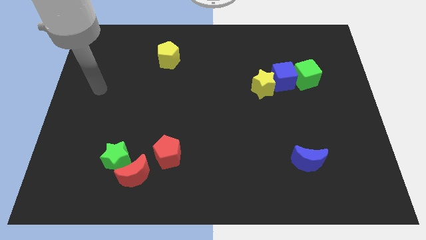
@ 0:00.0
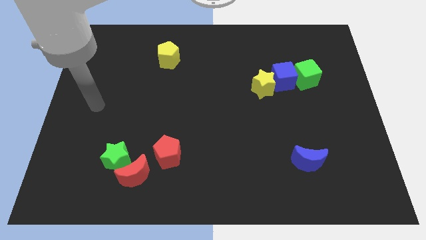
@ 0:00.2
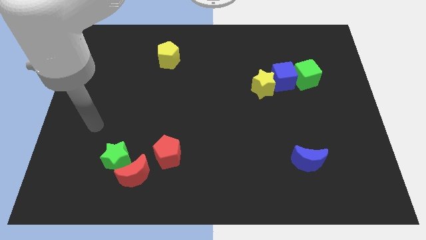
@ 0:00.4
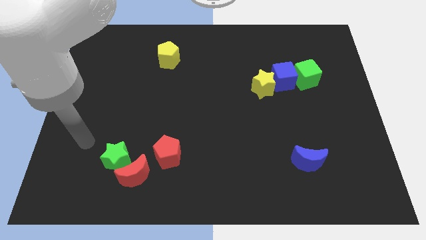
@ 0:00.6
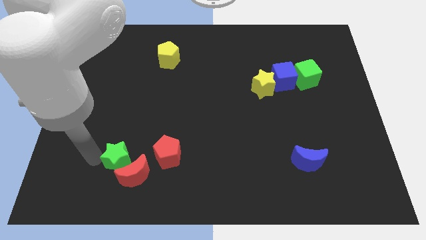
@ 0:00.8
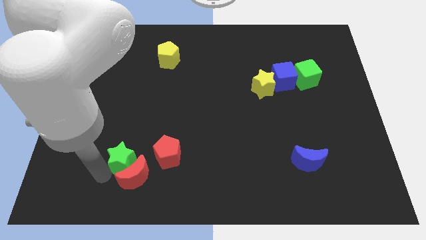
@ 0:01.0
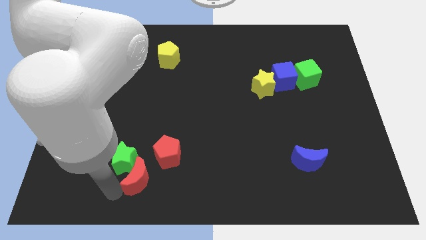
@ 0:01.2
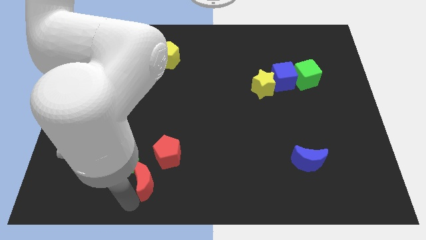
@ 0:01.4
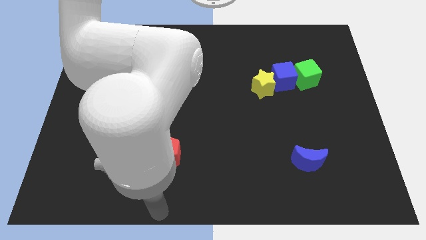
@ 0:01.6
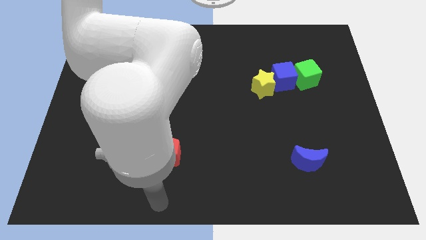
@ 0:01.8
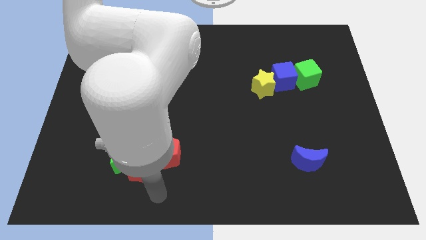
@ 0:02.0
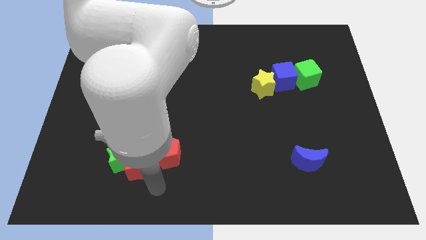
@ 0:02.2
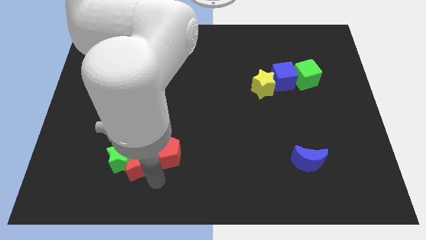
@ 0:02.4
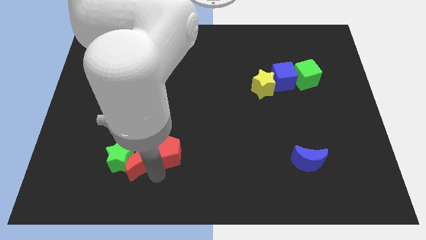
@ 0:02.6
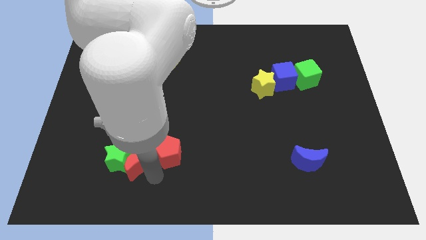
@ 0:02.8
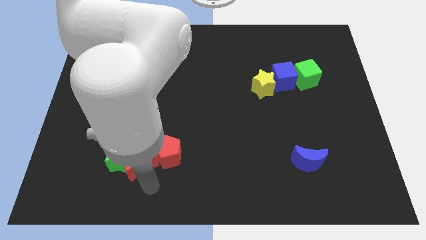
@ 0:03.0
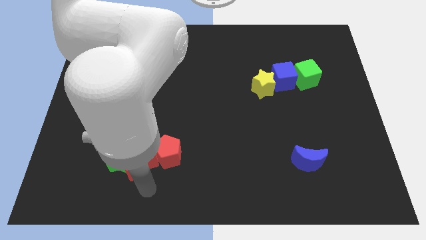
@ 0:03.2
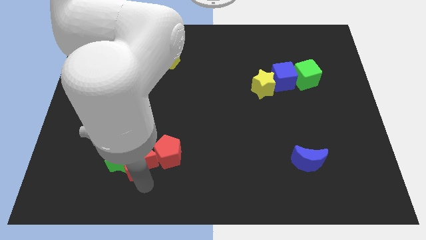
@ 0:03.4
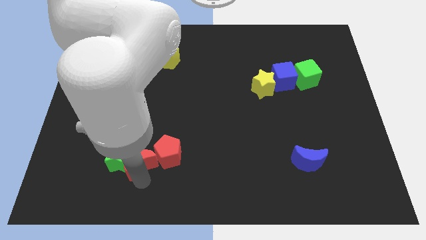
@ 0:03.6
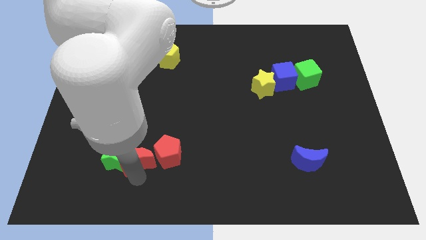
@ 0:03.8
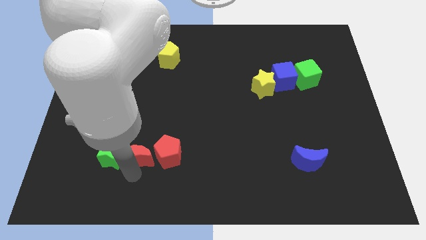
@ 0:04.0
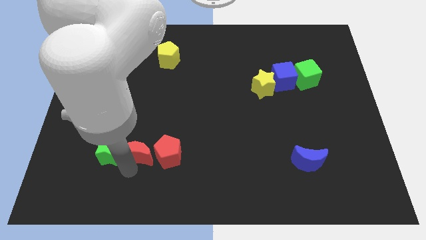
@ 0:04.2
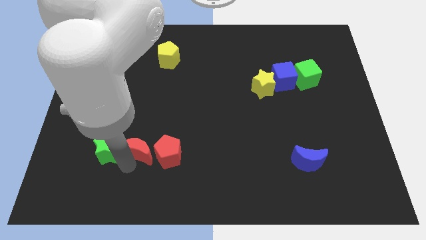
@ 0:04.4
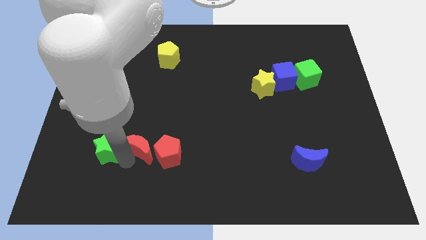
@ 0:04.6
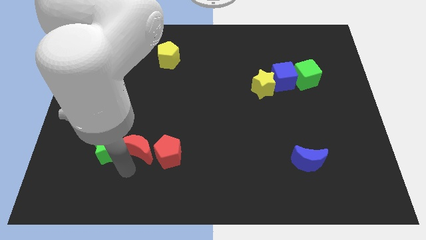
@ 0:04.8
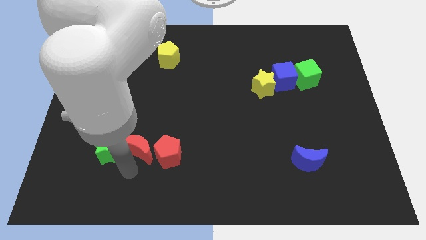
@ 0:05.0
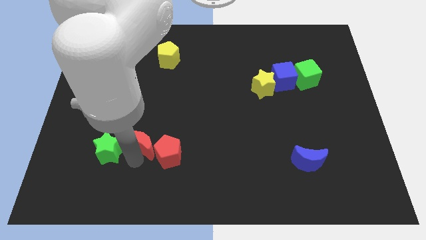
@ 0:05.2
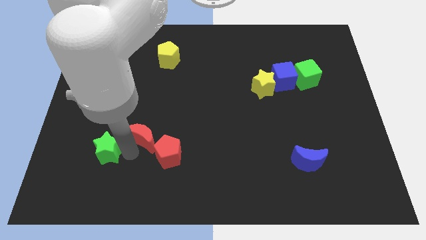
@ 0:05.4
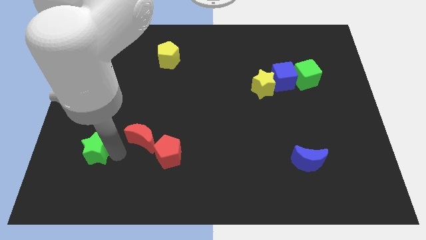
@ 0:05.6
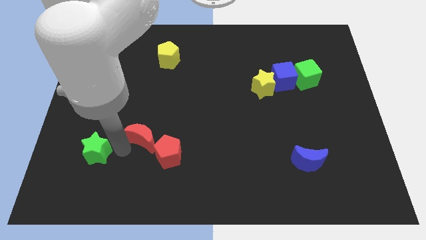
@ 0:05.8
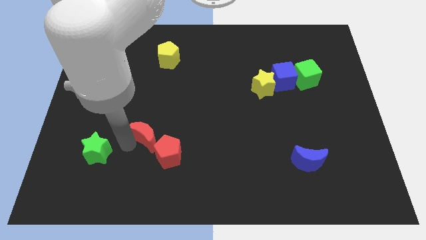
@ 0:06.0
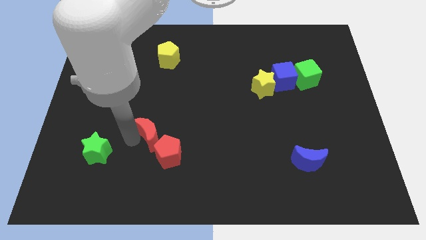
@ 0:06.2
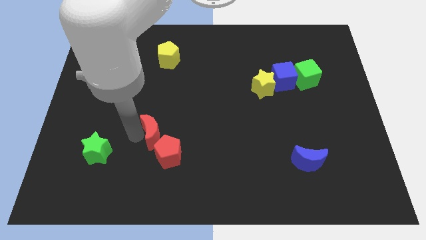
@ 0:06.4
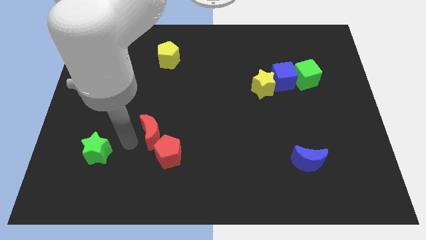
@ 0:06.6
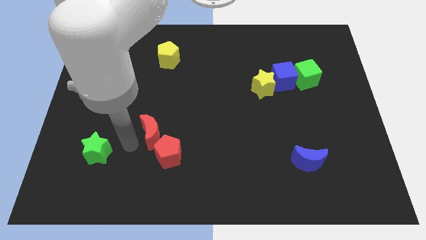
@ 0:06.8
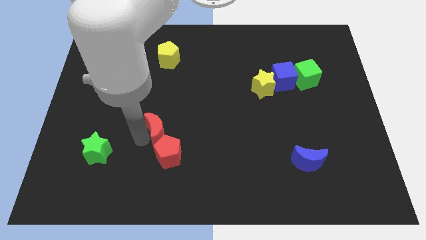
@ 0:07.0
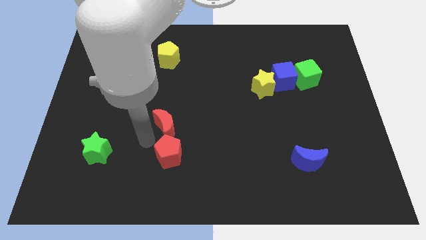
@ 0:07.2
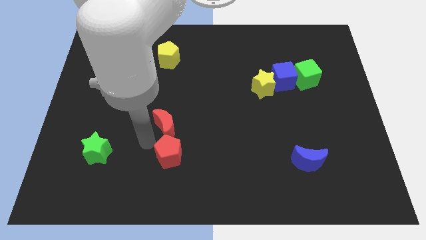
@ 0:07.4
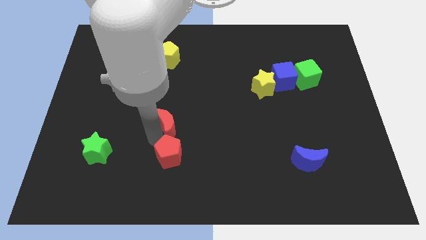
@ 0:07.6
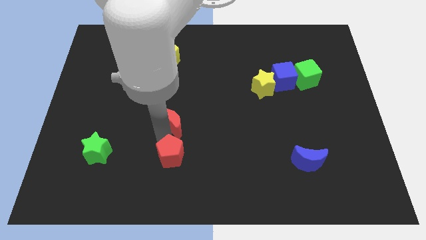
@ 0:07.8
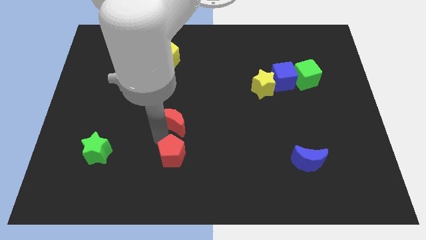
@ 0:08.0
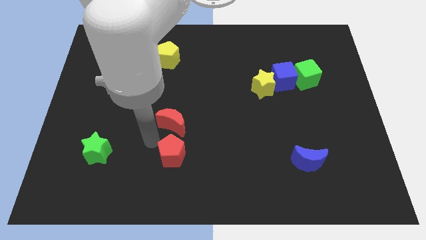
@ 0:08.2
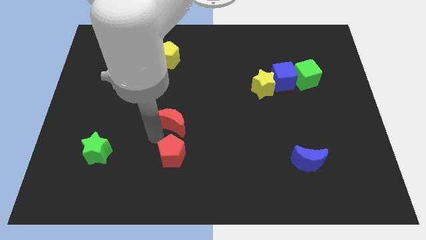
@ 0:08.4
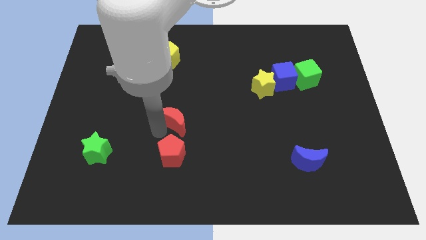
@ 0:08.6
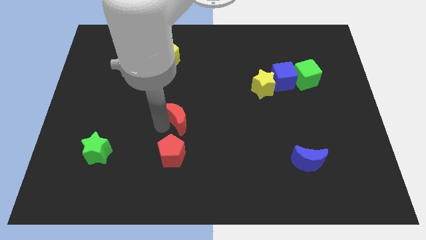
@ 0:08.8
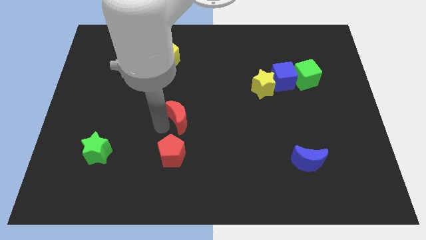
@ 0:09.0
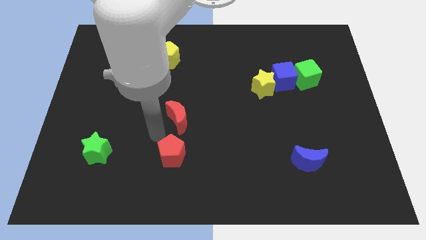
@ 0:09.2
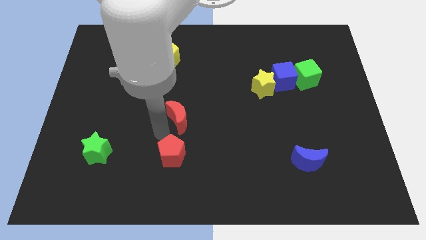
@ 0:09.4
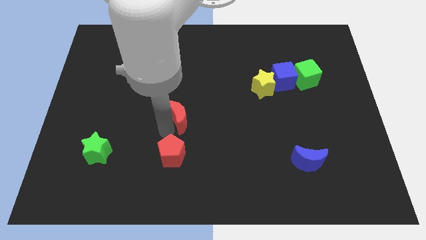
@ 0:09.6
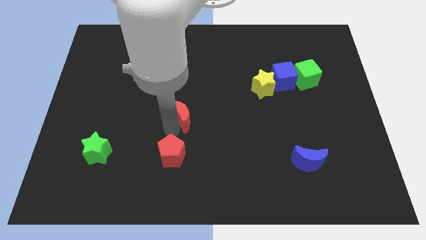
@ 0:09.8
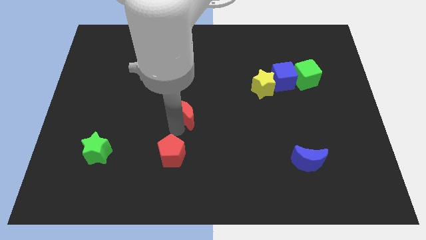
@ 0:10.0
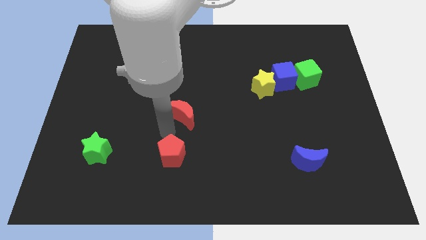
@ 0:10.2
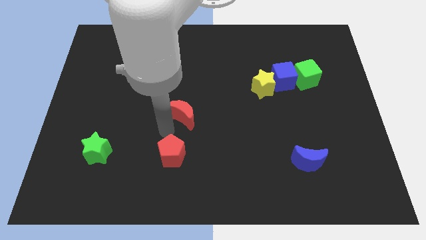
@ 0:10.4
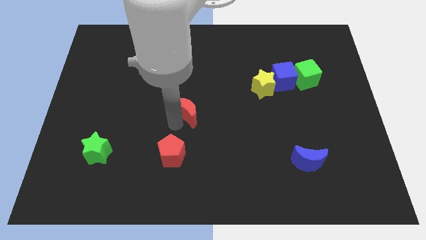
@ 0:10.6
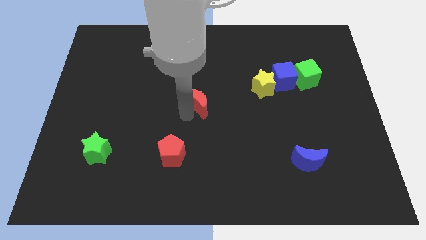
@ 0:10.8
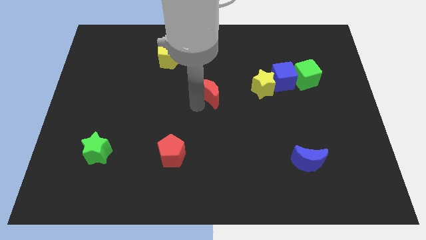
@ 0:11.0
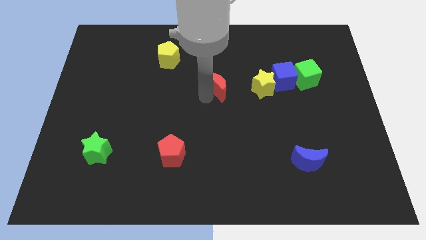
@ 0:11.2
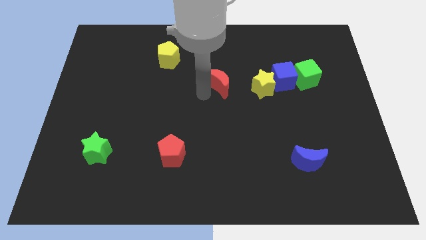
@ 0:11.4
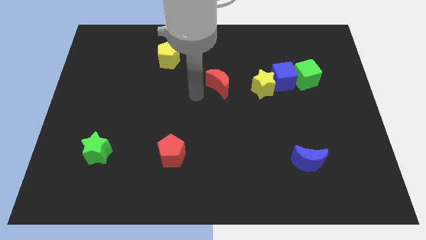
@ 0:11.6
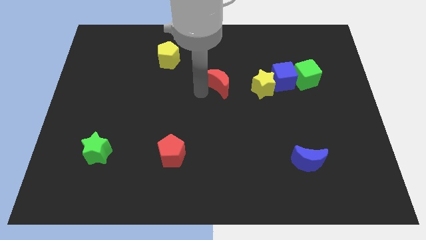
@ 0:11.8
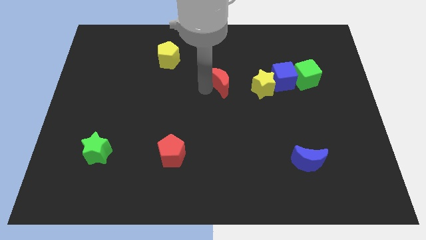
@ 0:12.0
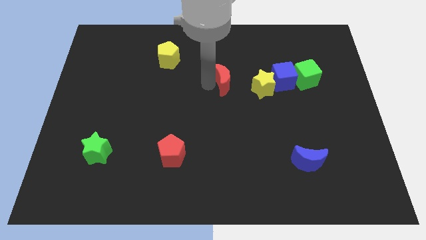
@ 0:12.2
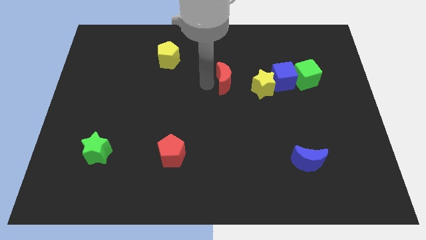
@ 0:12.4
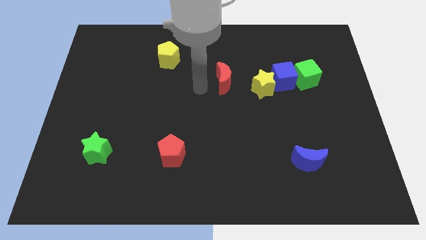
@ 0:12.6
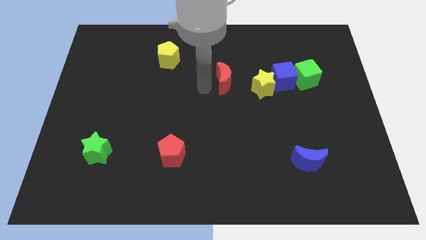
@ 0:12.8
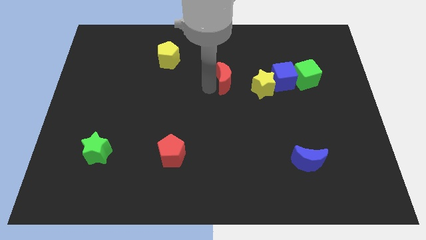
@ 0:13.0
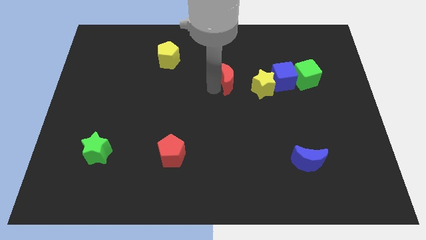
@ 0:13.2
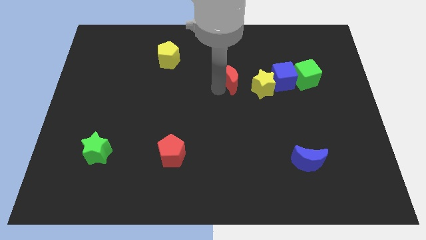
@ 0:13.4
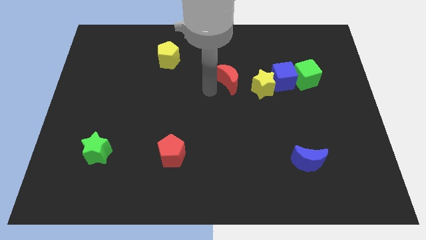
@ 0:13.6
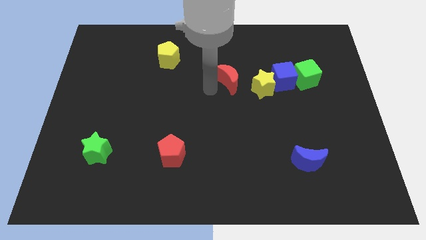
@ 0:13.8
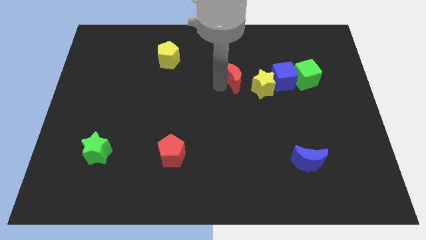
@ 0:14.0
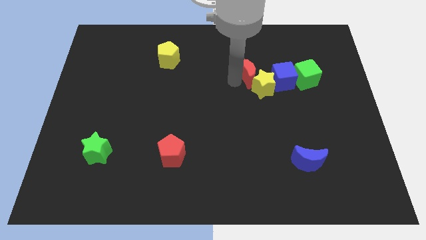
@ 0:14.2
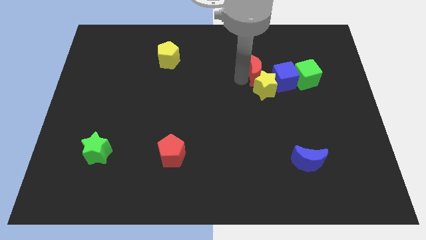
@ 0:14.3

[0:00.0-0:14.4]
put the red moon to the top left of the blue cube
